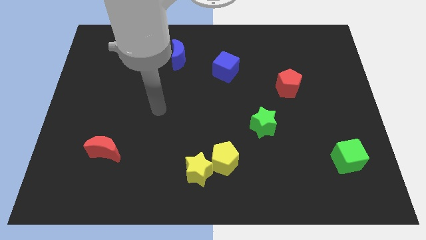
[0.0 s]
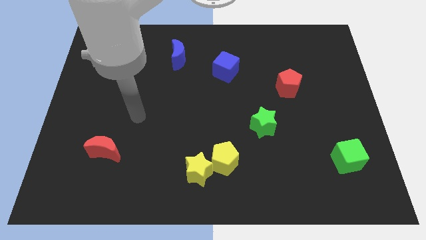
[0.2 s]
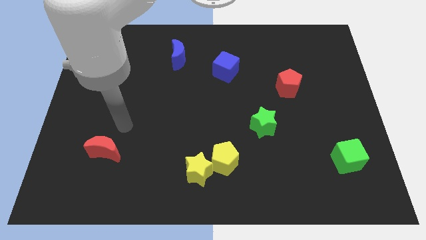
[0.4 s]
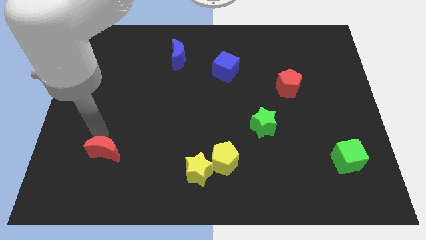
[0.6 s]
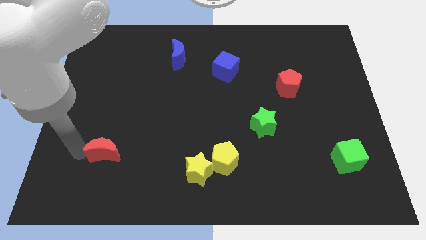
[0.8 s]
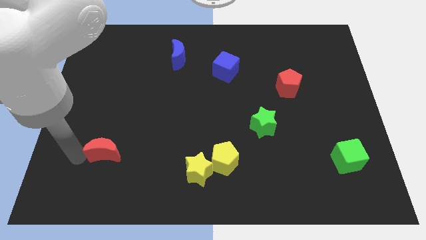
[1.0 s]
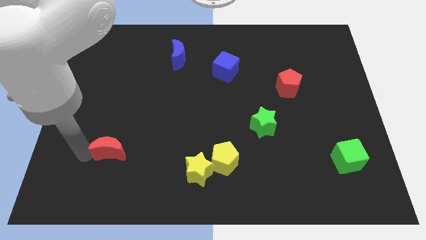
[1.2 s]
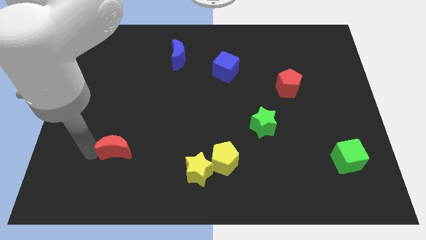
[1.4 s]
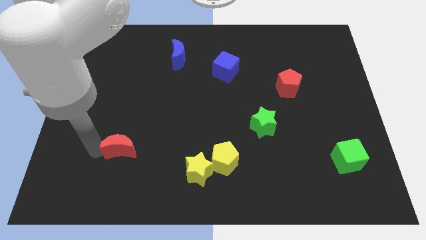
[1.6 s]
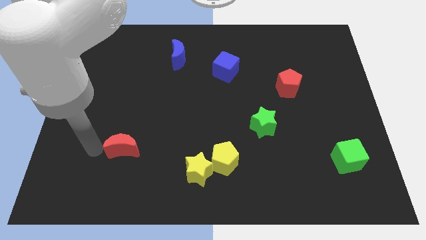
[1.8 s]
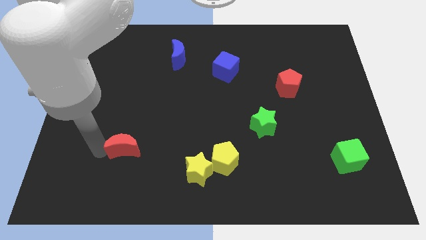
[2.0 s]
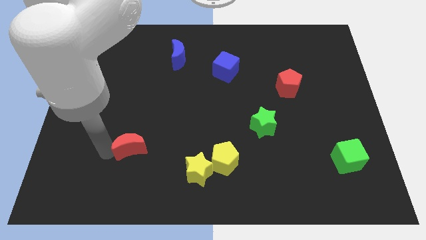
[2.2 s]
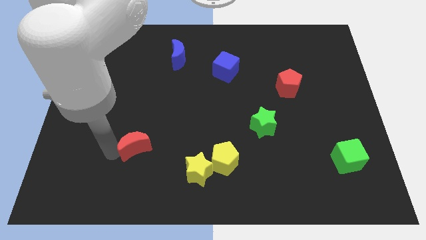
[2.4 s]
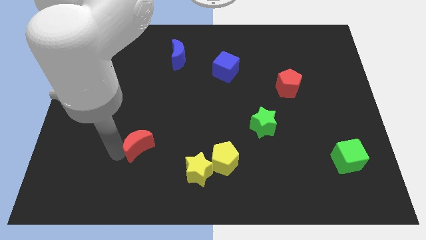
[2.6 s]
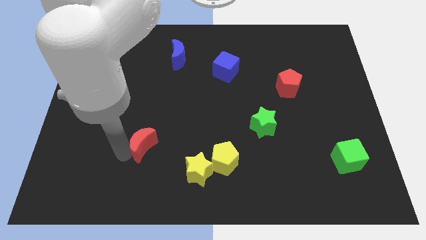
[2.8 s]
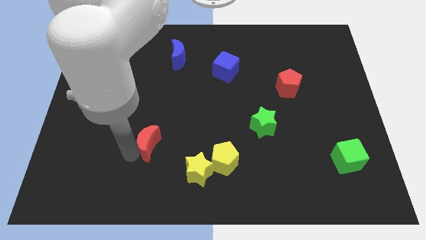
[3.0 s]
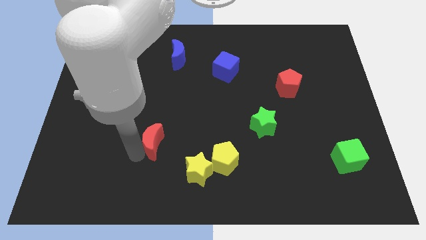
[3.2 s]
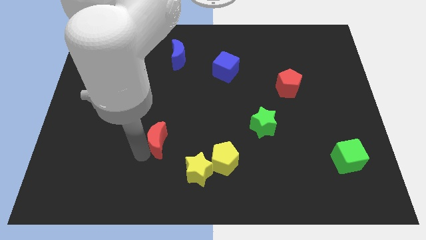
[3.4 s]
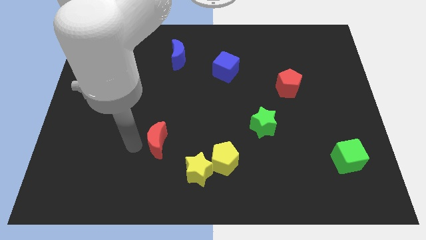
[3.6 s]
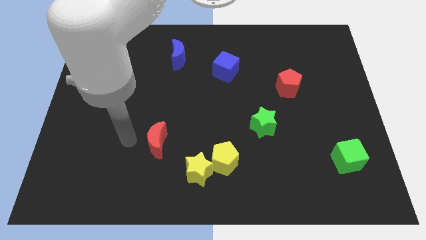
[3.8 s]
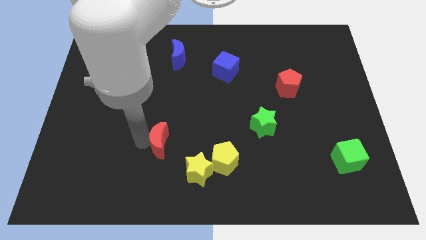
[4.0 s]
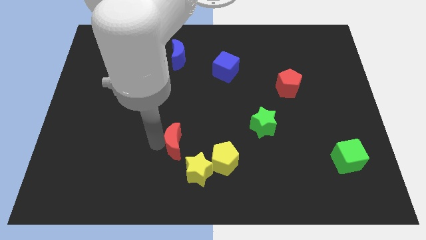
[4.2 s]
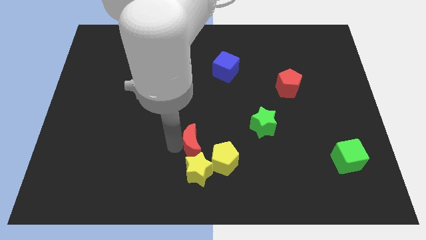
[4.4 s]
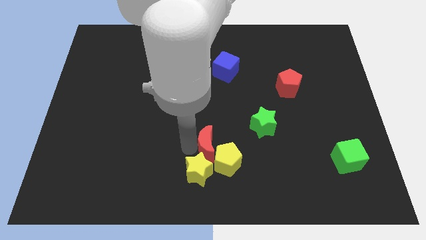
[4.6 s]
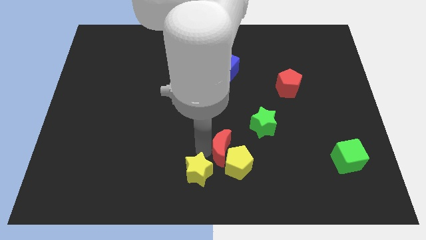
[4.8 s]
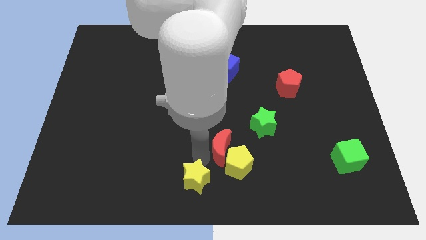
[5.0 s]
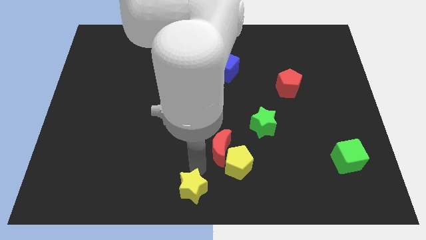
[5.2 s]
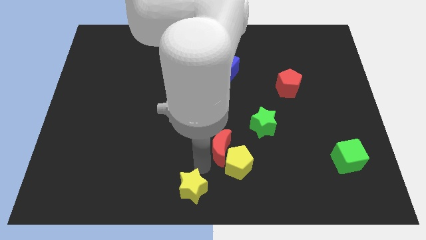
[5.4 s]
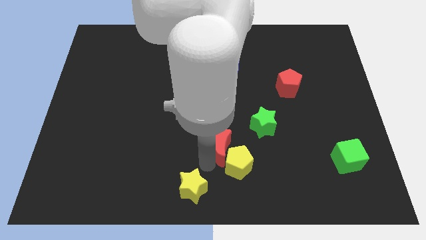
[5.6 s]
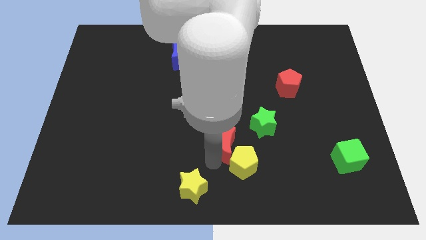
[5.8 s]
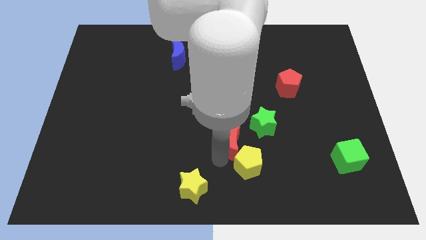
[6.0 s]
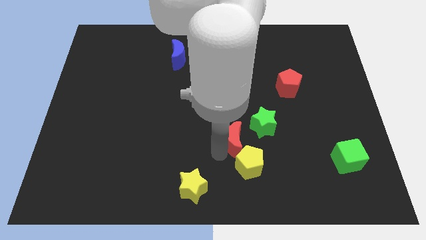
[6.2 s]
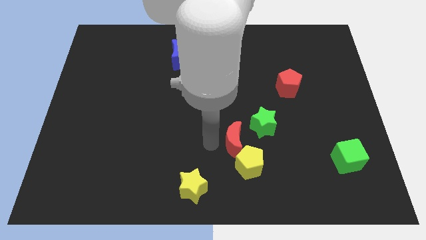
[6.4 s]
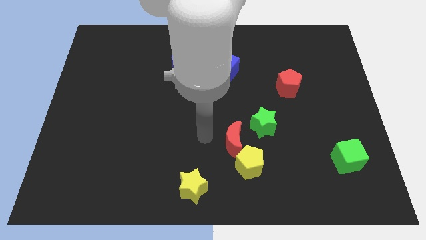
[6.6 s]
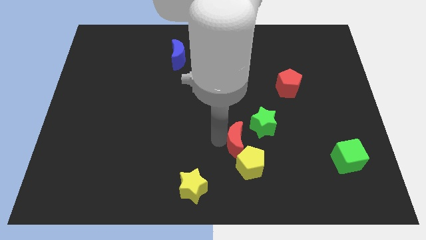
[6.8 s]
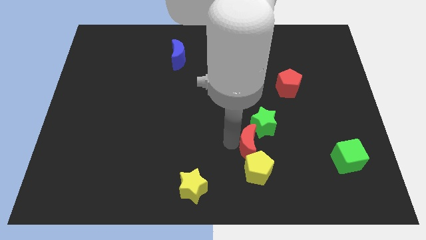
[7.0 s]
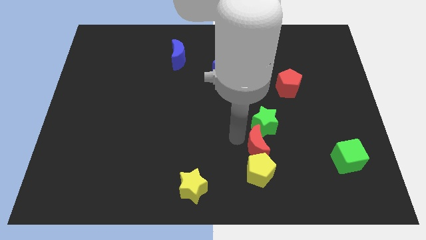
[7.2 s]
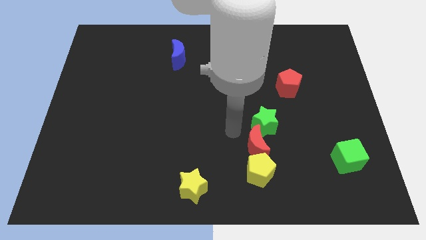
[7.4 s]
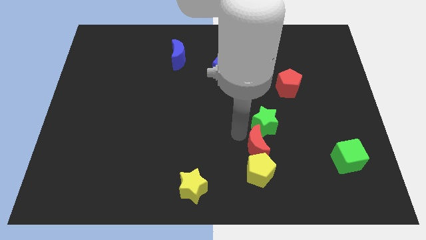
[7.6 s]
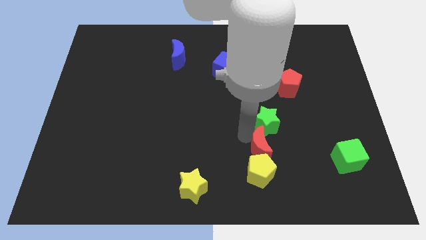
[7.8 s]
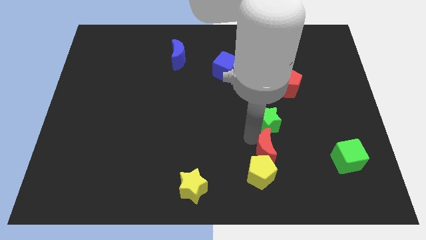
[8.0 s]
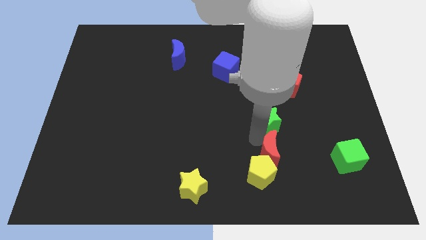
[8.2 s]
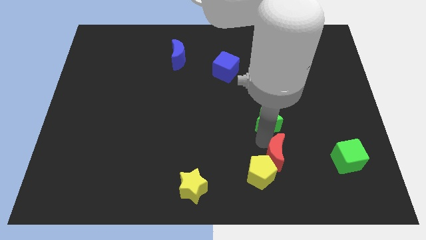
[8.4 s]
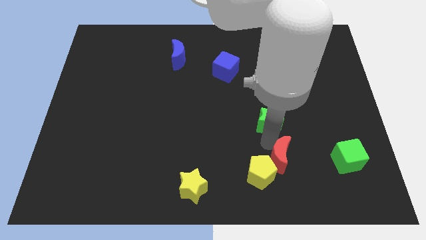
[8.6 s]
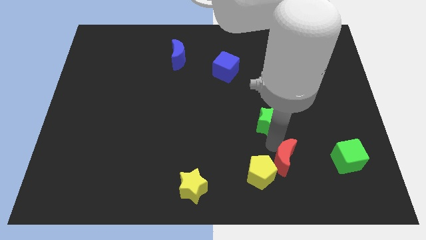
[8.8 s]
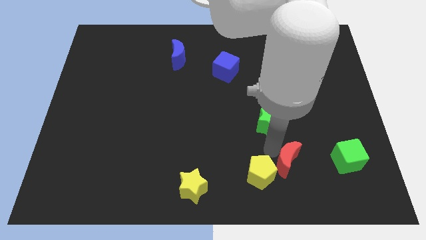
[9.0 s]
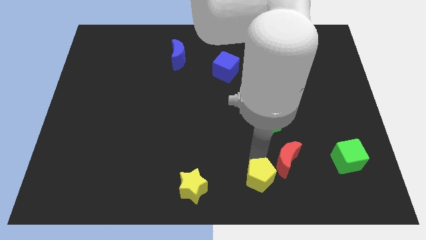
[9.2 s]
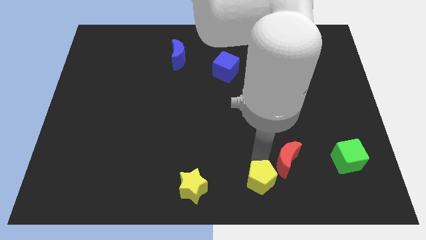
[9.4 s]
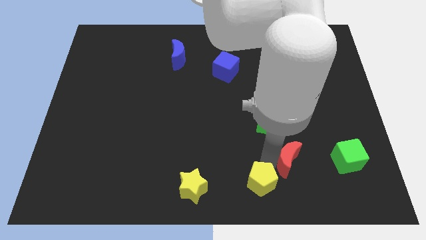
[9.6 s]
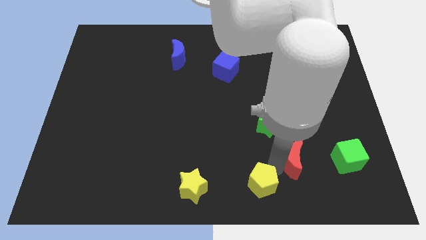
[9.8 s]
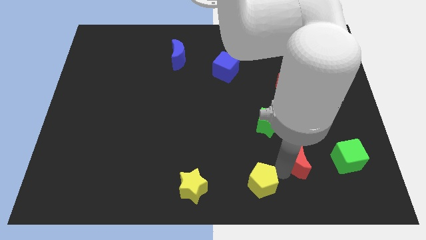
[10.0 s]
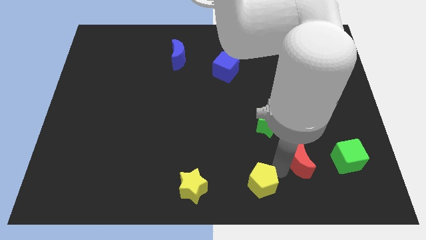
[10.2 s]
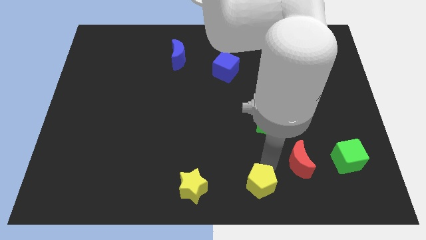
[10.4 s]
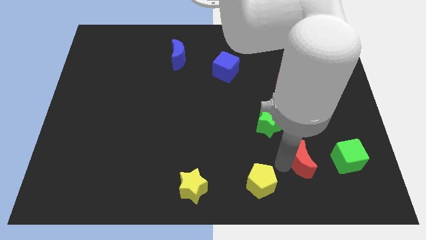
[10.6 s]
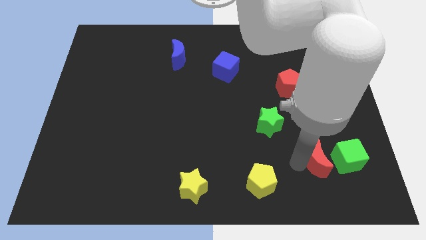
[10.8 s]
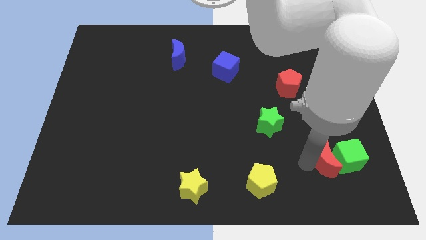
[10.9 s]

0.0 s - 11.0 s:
push the red moon towards the green cube

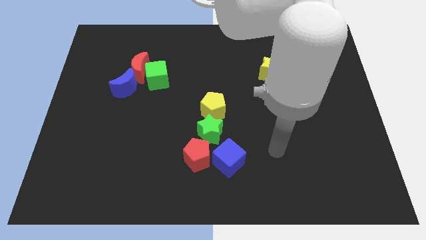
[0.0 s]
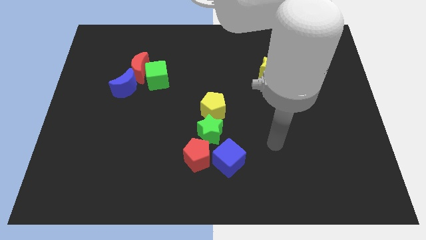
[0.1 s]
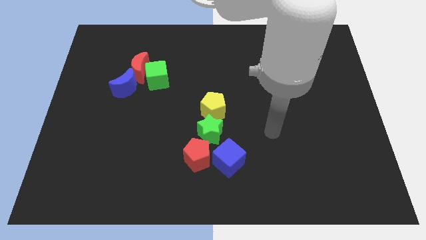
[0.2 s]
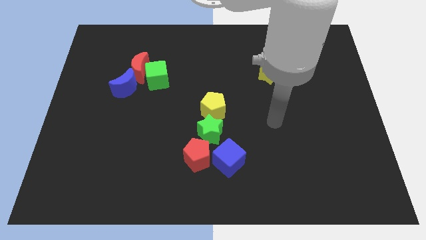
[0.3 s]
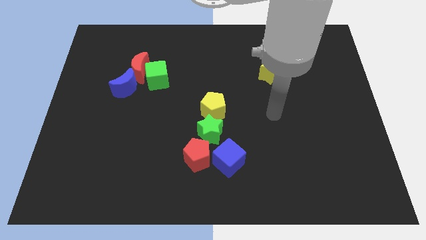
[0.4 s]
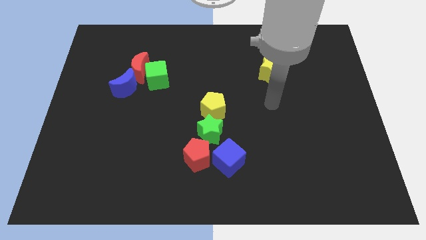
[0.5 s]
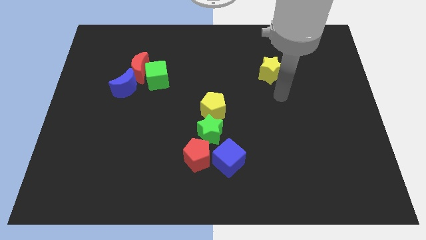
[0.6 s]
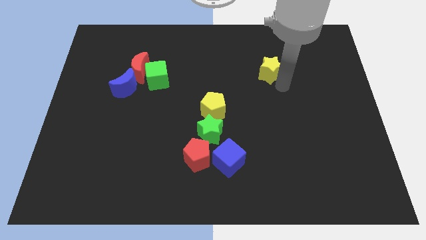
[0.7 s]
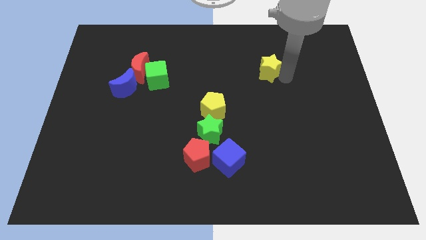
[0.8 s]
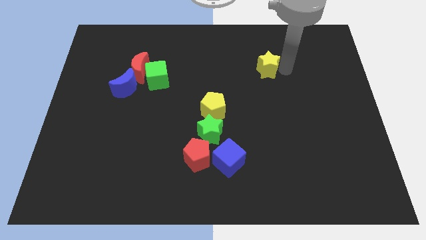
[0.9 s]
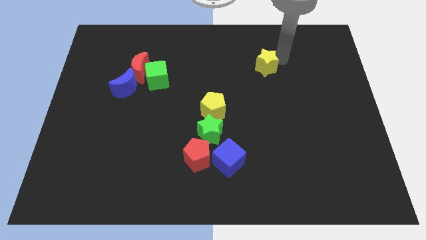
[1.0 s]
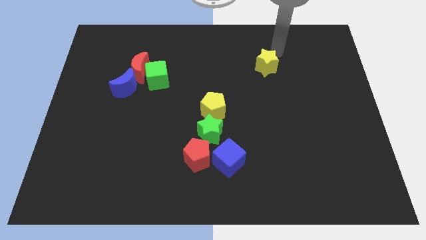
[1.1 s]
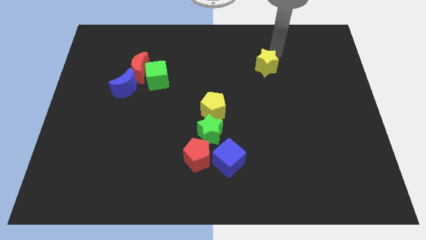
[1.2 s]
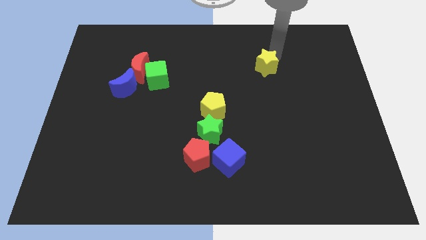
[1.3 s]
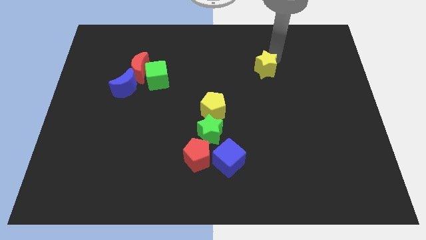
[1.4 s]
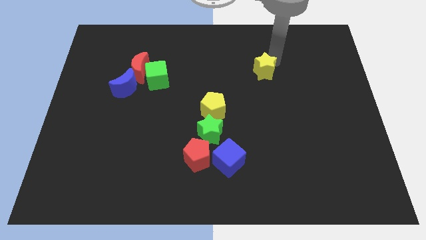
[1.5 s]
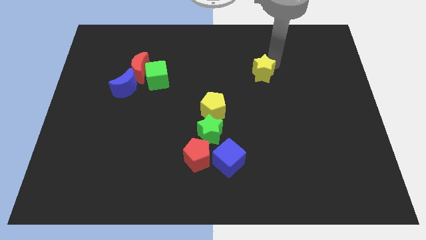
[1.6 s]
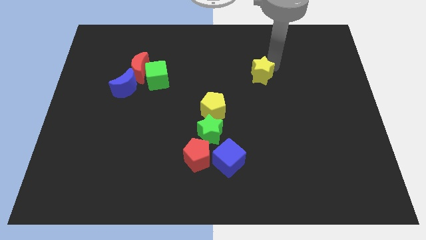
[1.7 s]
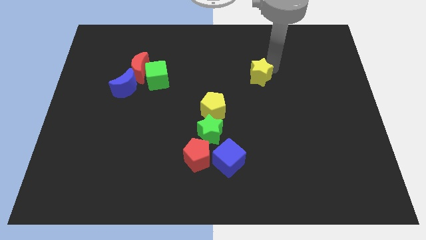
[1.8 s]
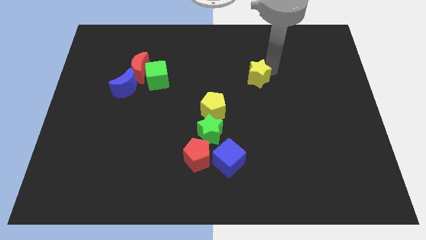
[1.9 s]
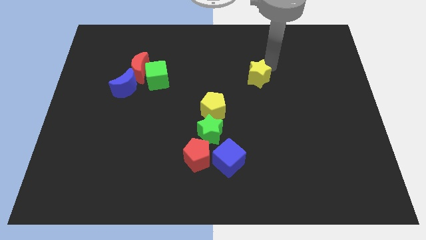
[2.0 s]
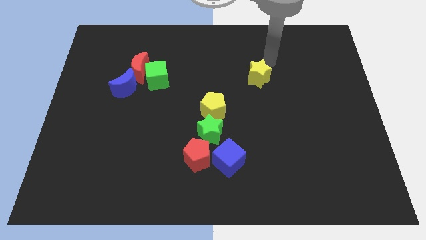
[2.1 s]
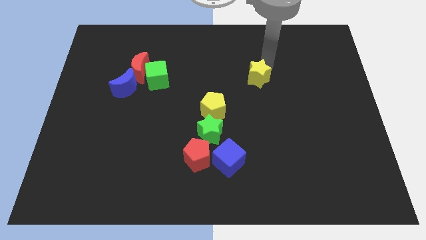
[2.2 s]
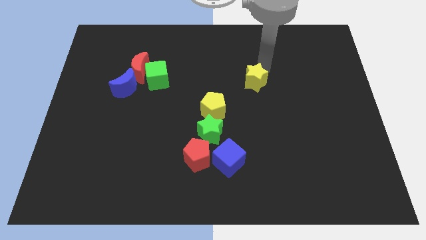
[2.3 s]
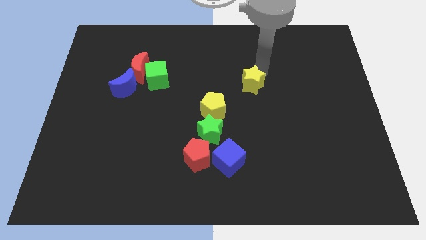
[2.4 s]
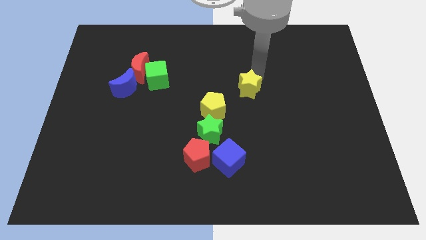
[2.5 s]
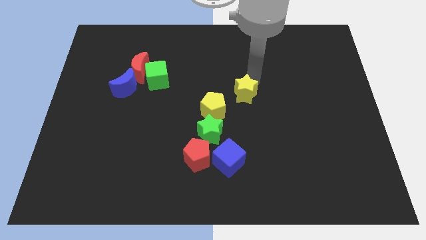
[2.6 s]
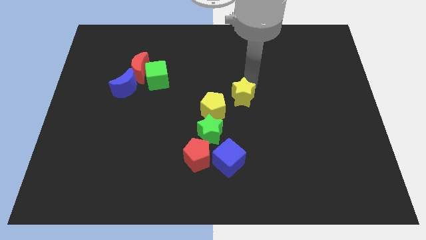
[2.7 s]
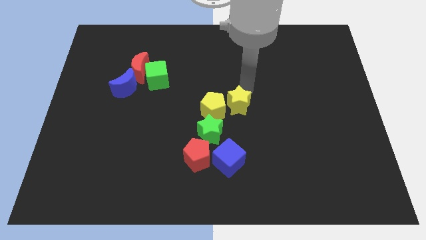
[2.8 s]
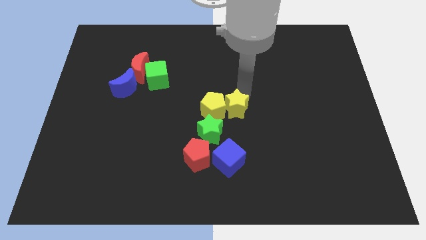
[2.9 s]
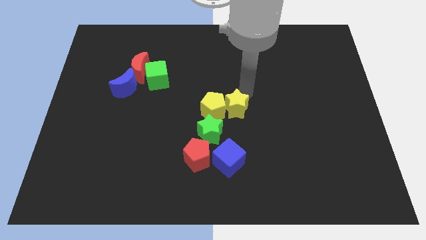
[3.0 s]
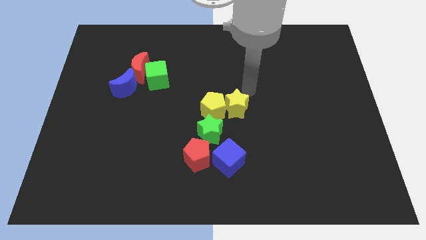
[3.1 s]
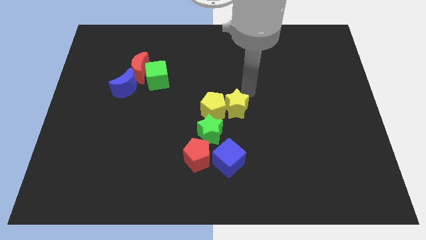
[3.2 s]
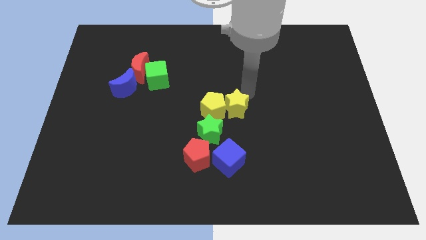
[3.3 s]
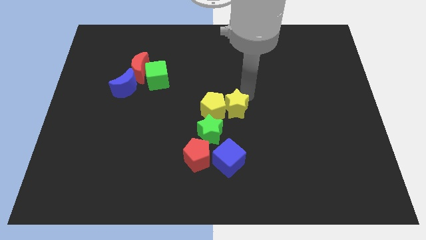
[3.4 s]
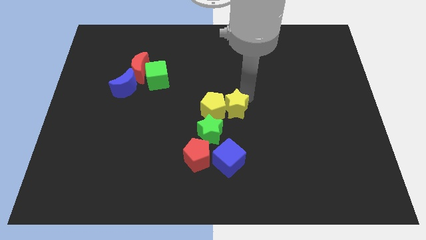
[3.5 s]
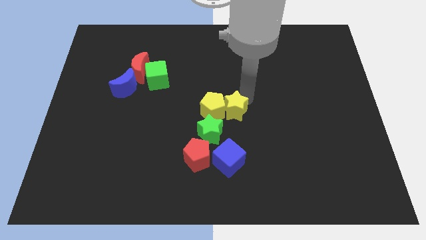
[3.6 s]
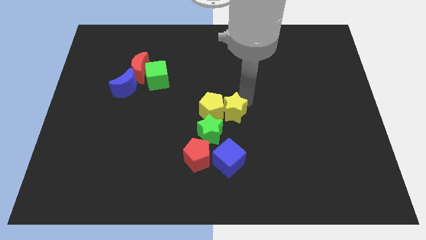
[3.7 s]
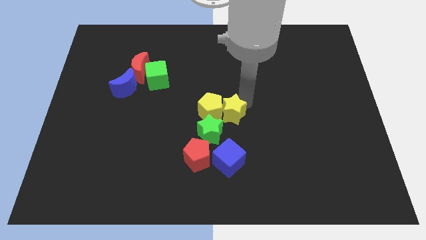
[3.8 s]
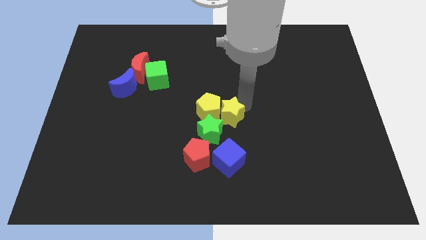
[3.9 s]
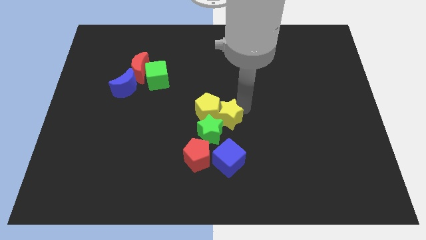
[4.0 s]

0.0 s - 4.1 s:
slide the yellow star next to the green star
